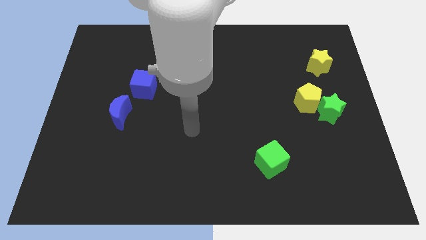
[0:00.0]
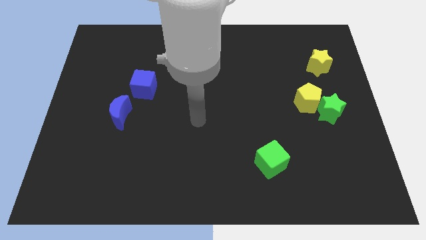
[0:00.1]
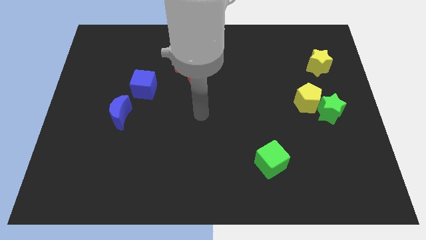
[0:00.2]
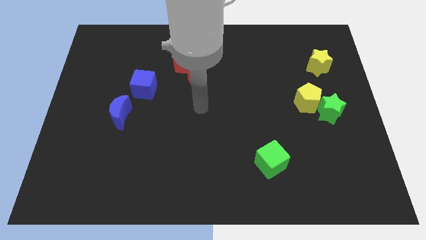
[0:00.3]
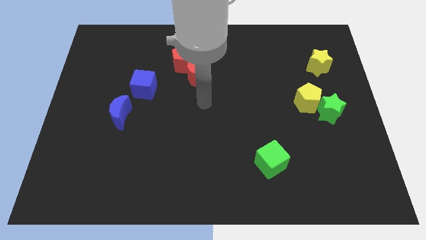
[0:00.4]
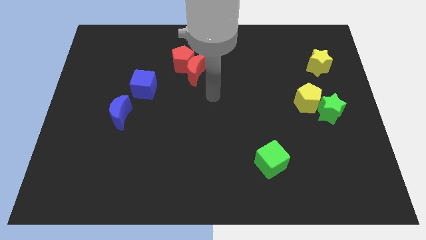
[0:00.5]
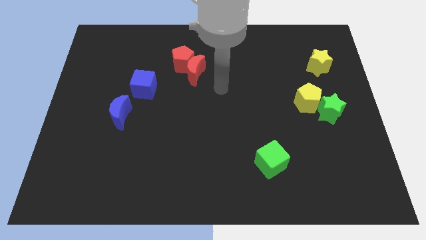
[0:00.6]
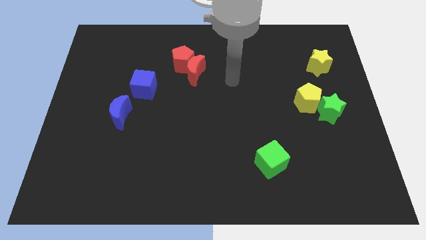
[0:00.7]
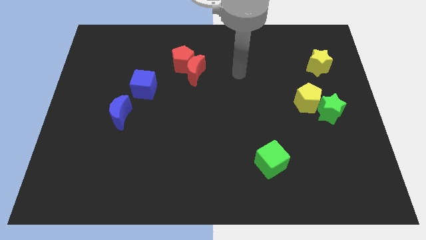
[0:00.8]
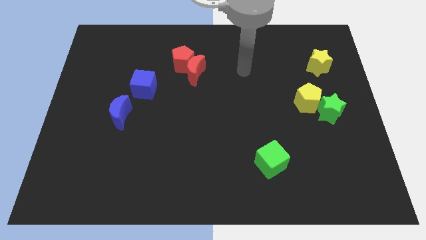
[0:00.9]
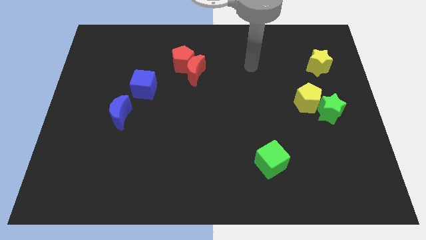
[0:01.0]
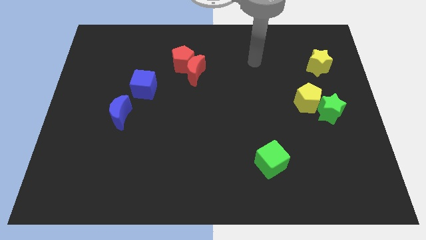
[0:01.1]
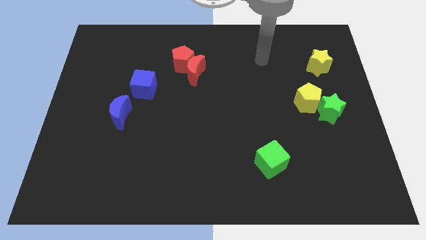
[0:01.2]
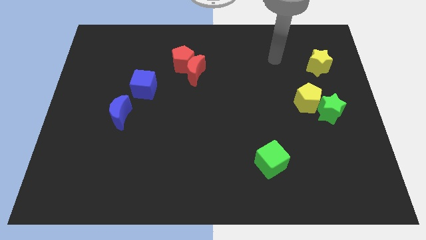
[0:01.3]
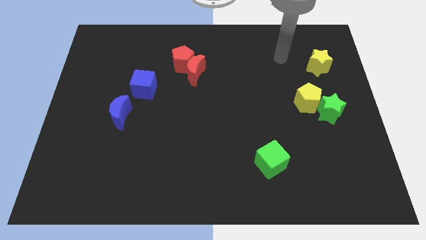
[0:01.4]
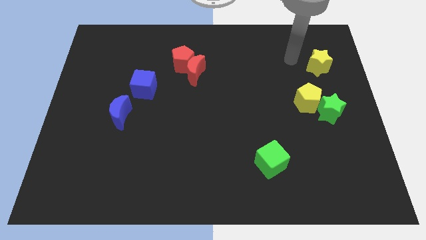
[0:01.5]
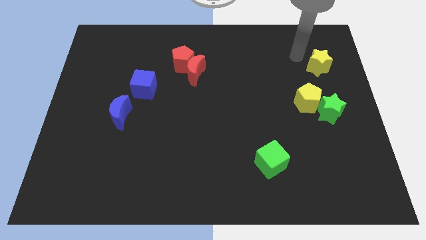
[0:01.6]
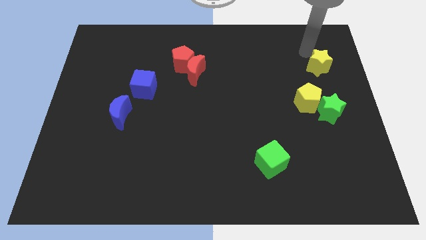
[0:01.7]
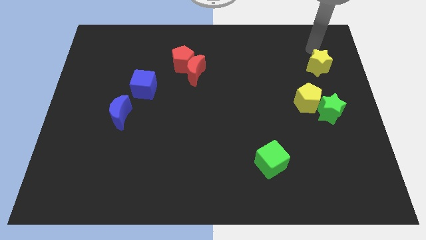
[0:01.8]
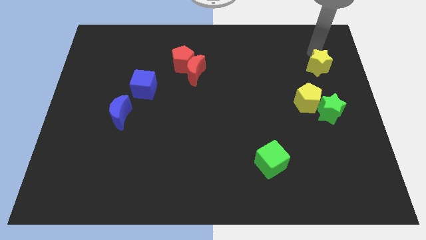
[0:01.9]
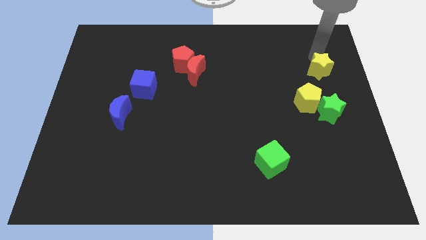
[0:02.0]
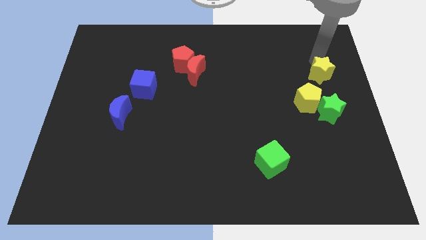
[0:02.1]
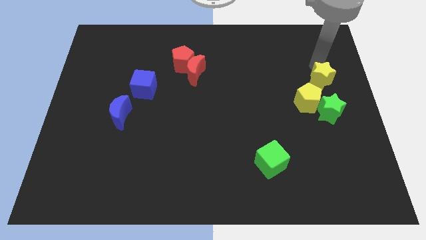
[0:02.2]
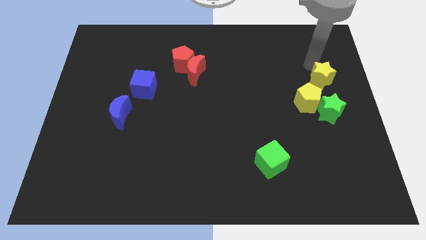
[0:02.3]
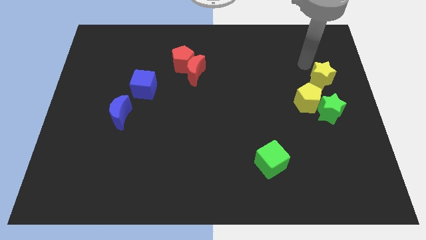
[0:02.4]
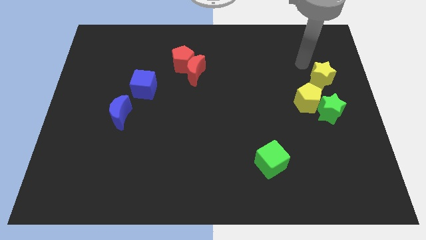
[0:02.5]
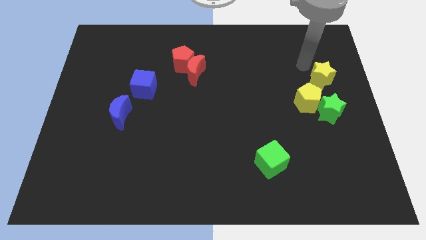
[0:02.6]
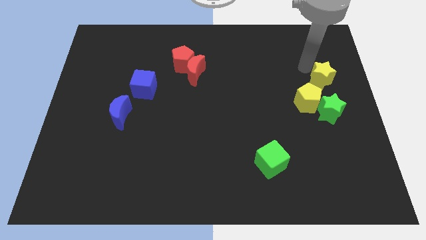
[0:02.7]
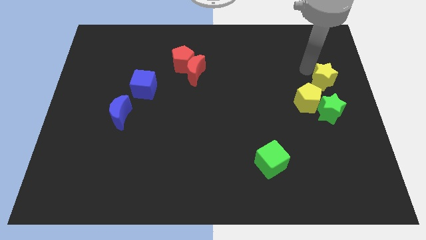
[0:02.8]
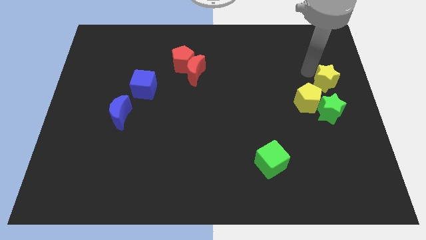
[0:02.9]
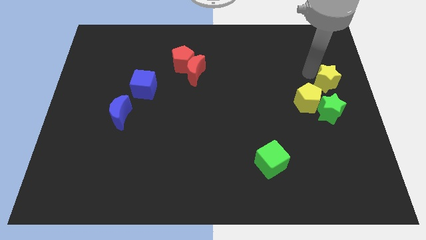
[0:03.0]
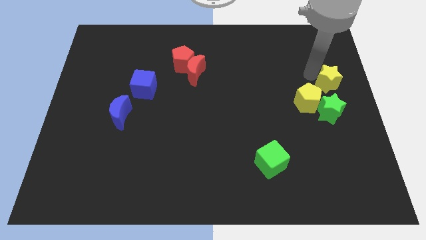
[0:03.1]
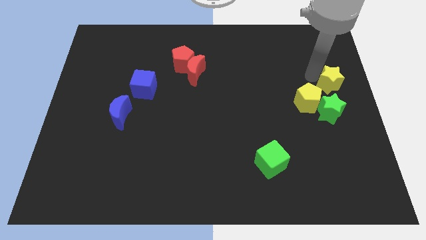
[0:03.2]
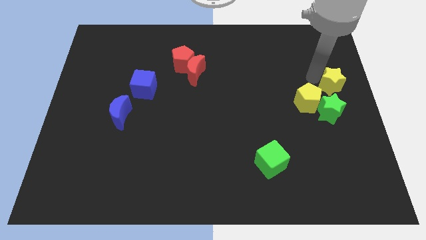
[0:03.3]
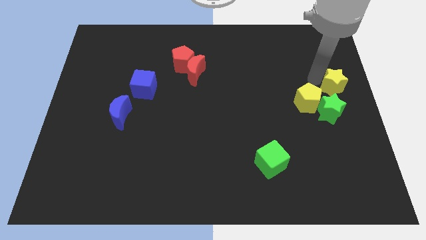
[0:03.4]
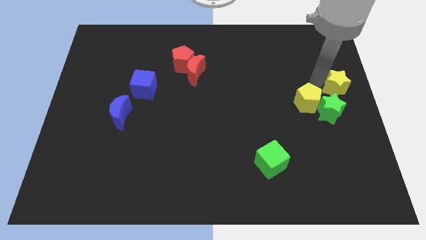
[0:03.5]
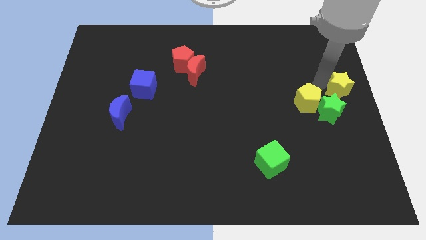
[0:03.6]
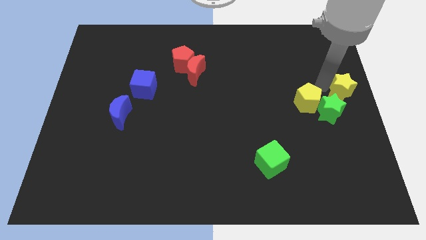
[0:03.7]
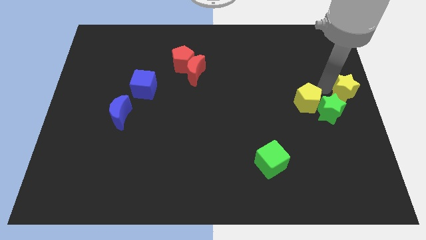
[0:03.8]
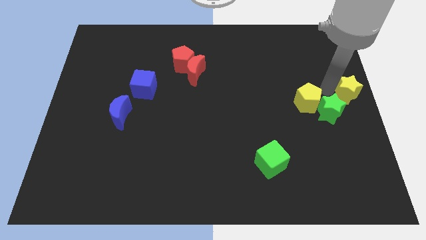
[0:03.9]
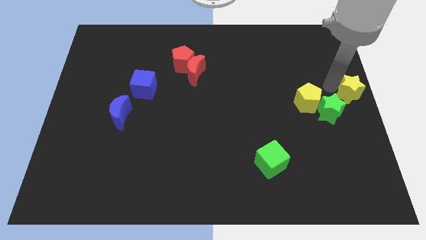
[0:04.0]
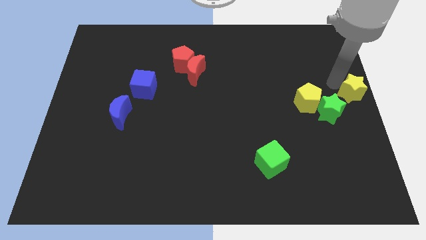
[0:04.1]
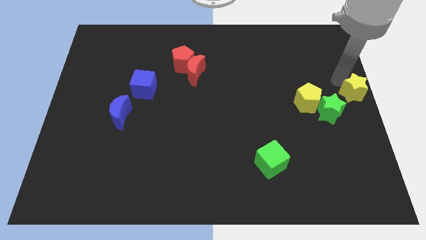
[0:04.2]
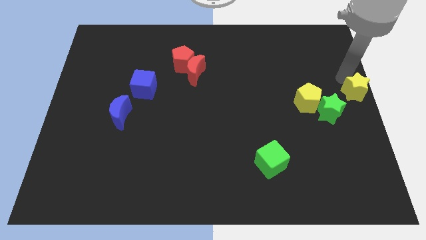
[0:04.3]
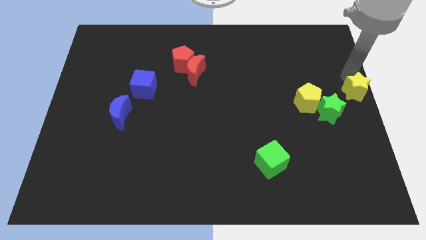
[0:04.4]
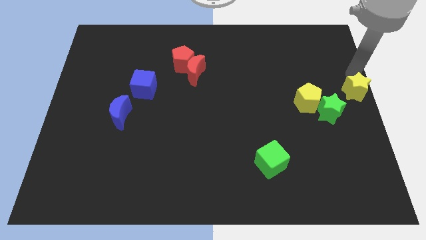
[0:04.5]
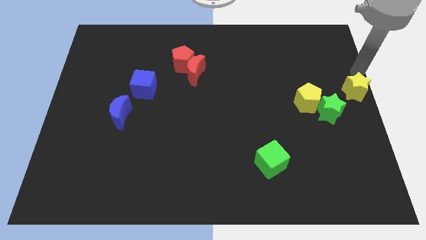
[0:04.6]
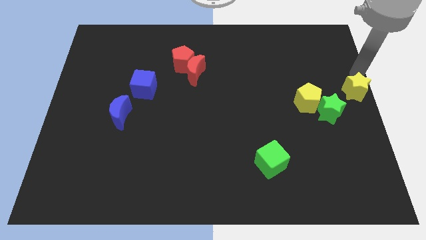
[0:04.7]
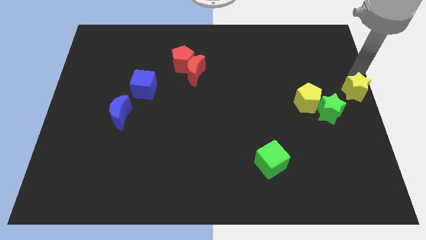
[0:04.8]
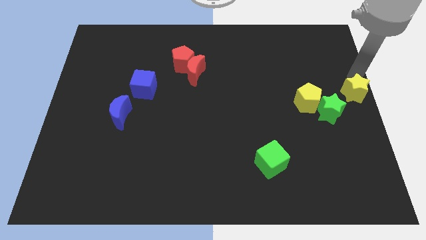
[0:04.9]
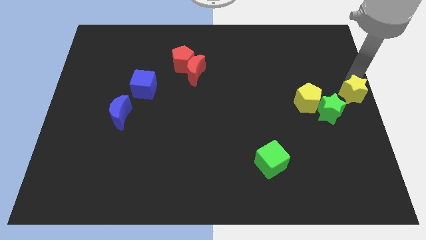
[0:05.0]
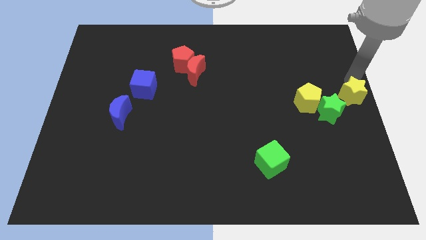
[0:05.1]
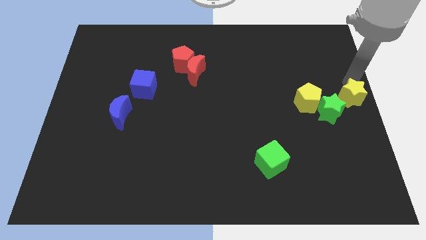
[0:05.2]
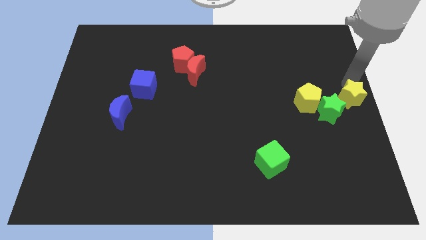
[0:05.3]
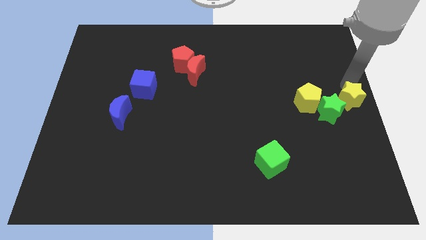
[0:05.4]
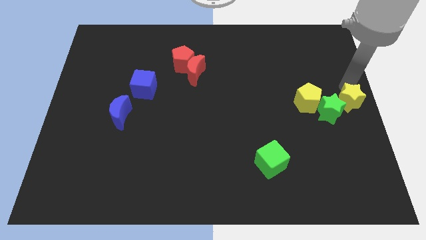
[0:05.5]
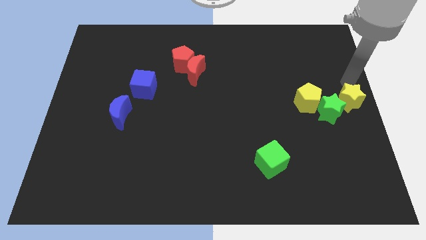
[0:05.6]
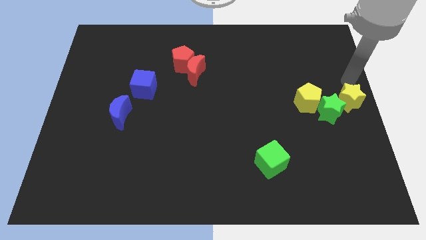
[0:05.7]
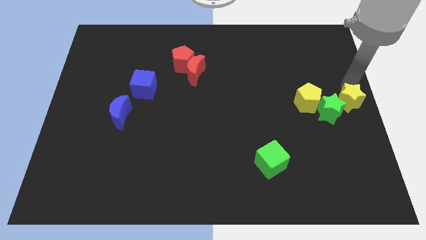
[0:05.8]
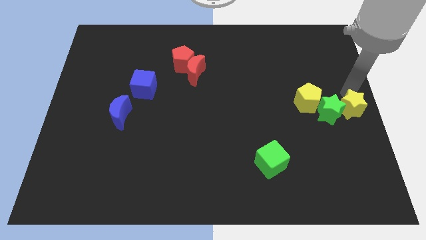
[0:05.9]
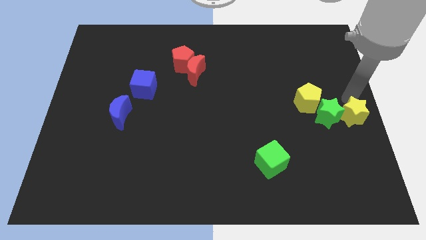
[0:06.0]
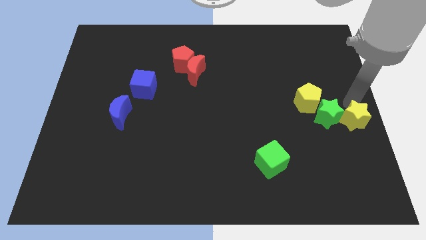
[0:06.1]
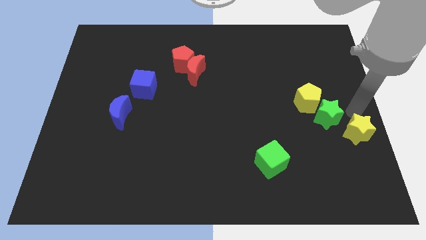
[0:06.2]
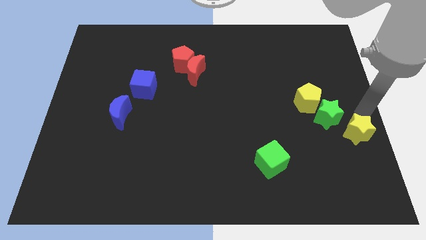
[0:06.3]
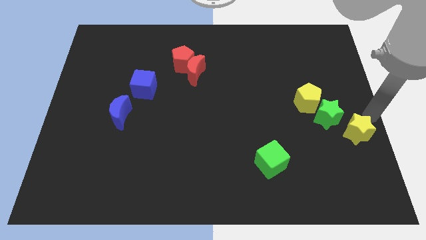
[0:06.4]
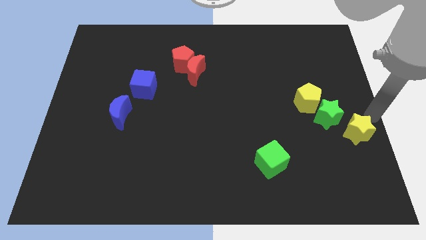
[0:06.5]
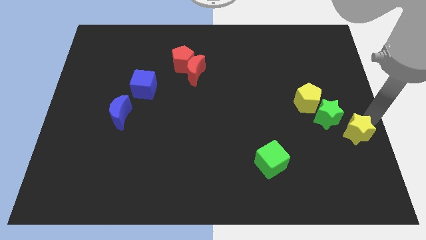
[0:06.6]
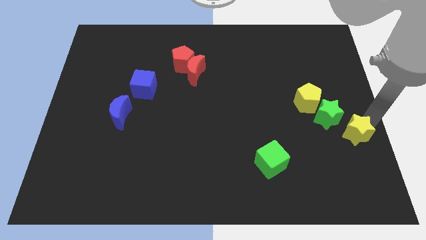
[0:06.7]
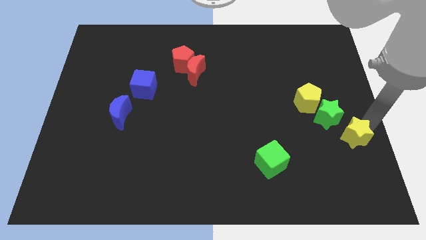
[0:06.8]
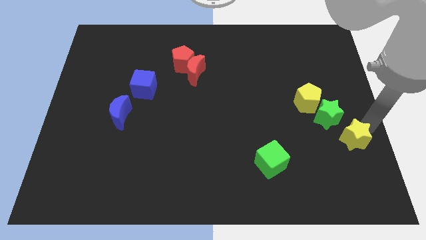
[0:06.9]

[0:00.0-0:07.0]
move the yellow star below the green star

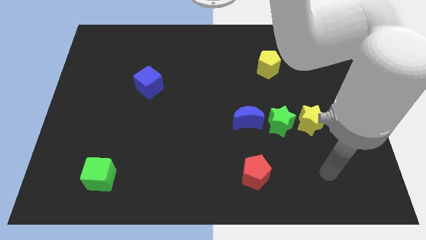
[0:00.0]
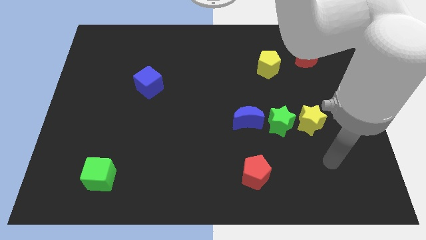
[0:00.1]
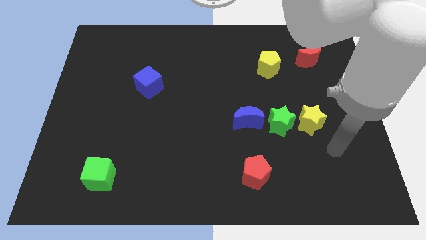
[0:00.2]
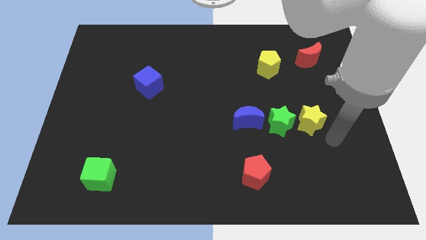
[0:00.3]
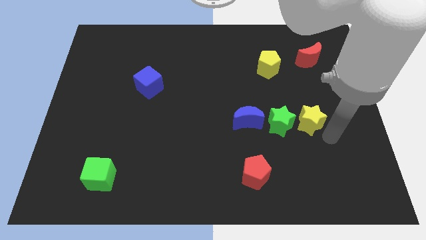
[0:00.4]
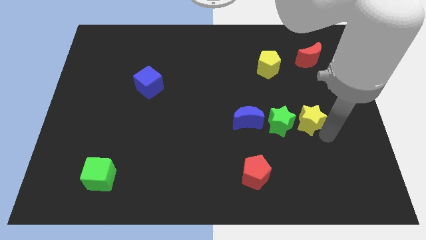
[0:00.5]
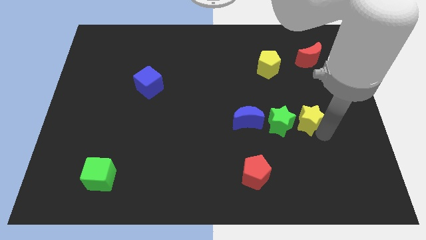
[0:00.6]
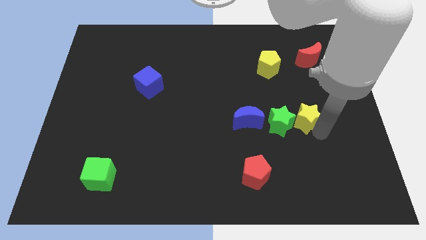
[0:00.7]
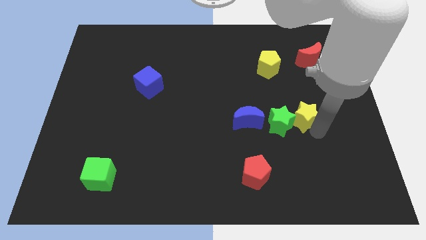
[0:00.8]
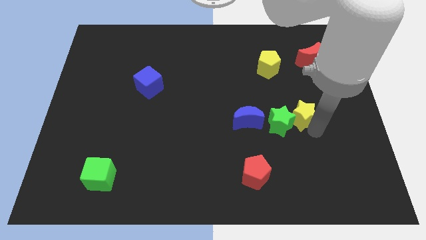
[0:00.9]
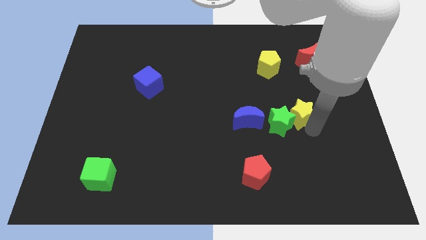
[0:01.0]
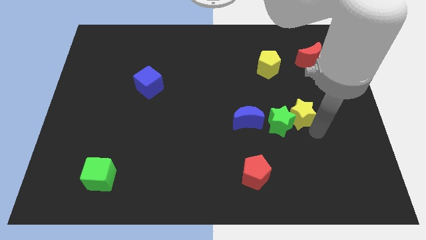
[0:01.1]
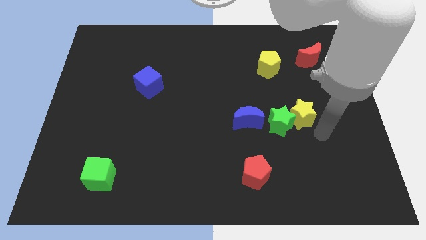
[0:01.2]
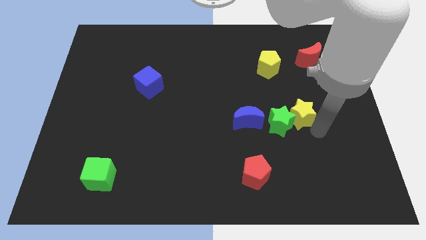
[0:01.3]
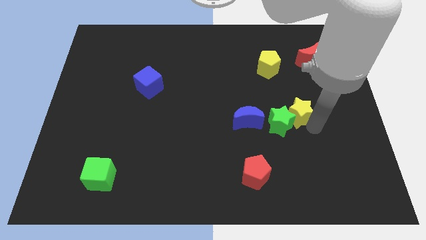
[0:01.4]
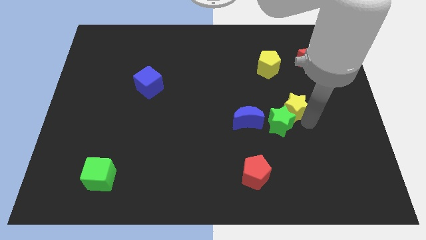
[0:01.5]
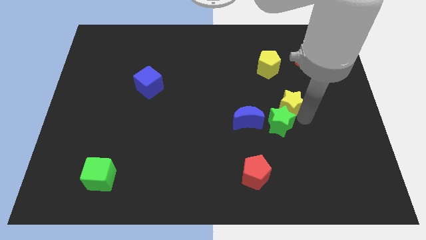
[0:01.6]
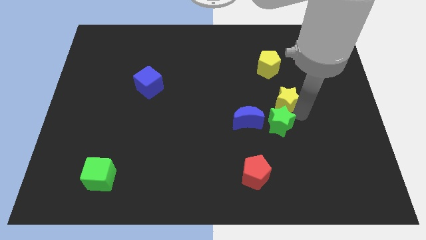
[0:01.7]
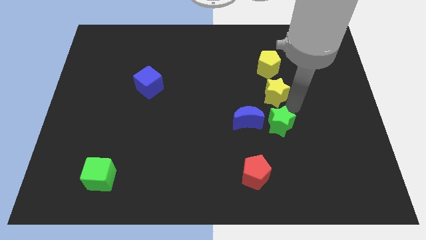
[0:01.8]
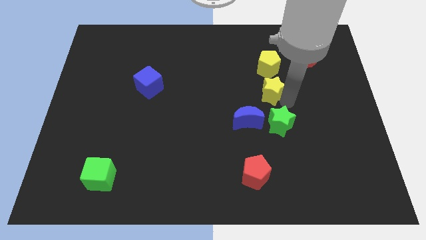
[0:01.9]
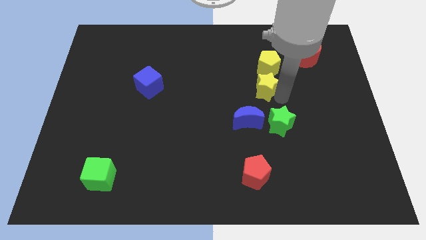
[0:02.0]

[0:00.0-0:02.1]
move the yellow star diagonally down and to the left of the yellow pentagon
